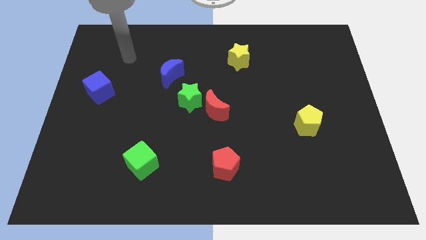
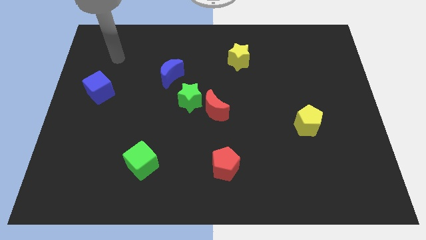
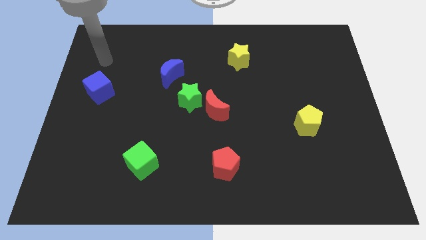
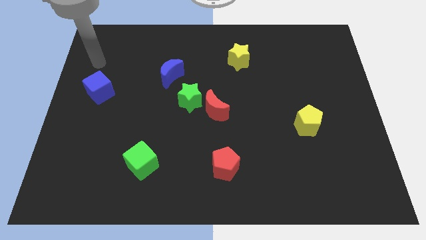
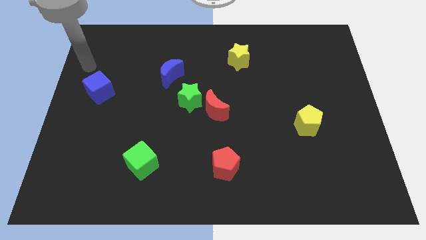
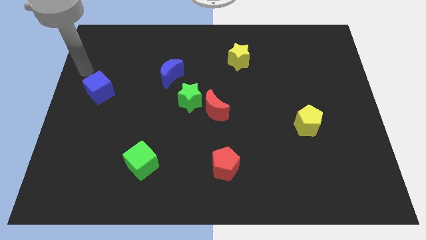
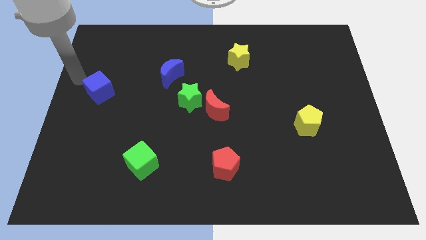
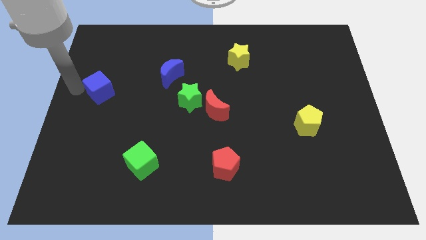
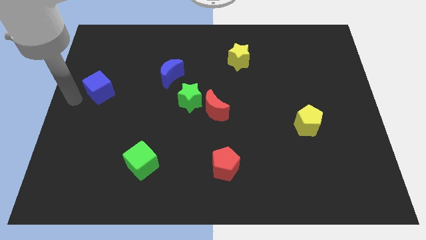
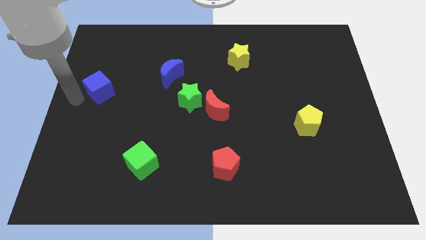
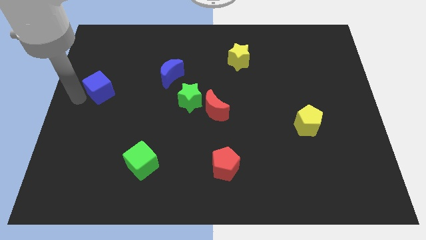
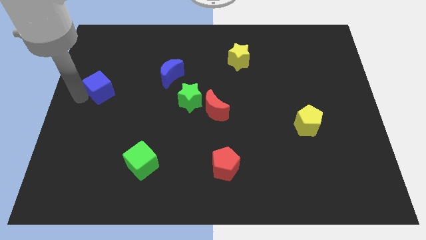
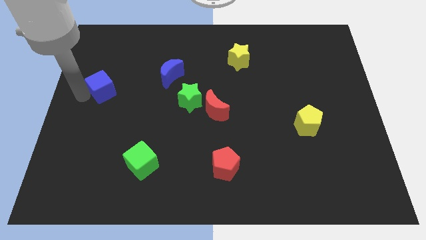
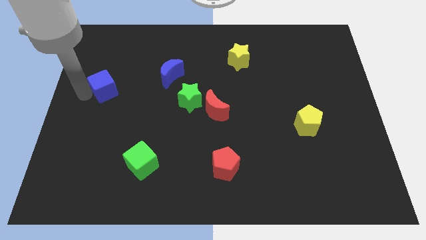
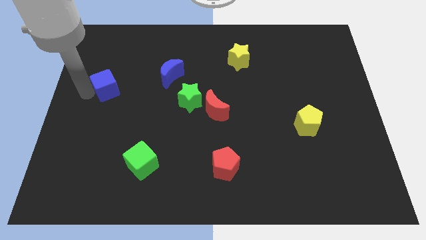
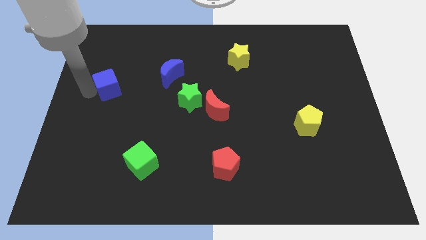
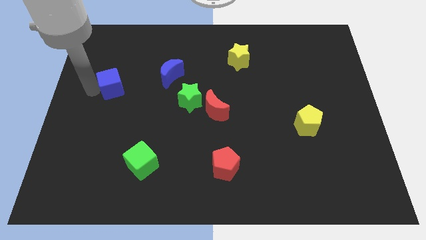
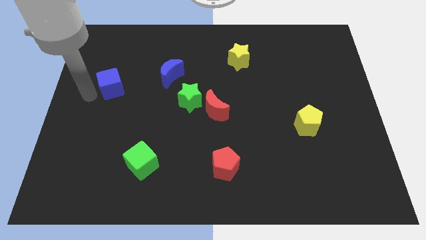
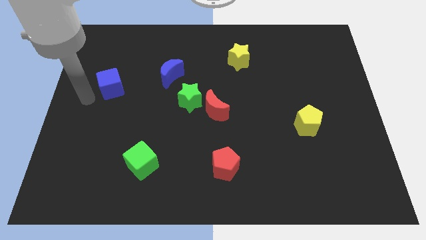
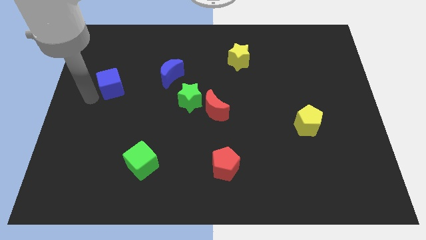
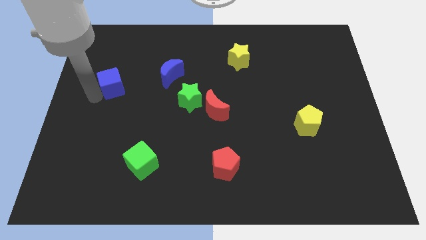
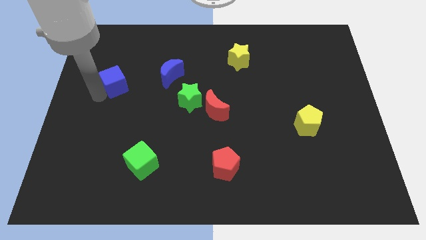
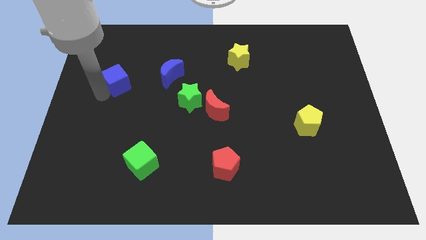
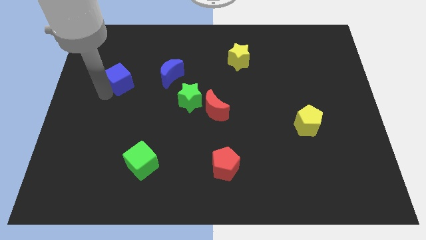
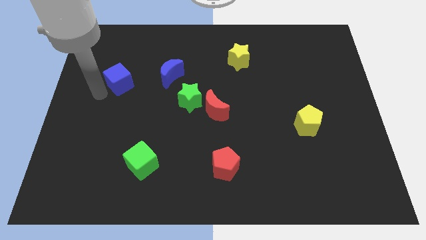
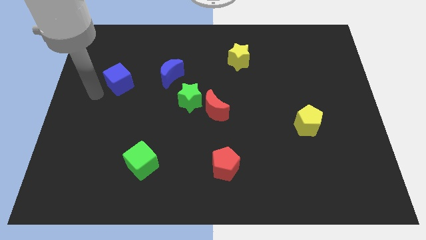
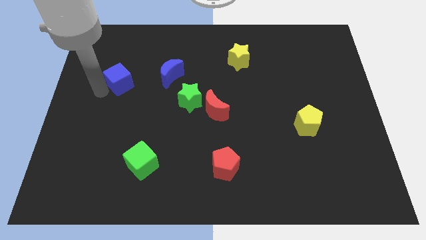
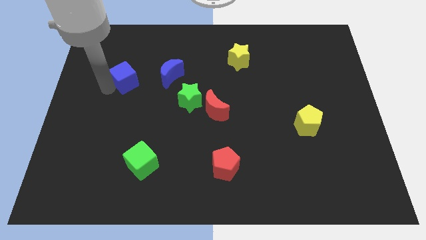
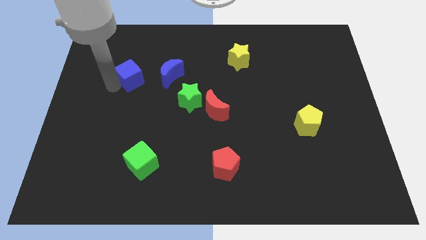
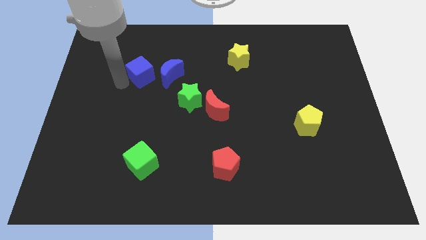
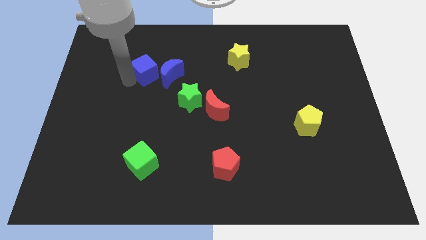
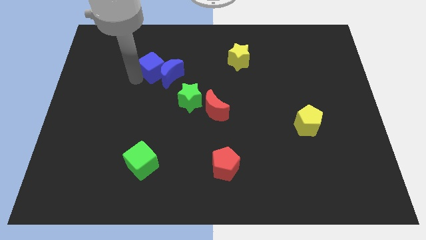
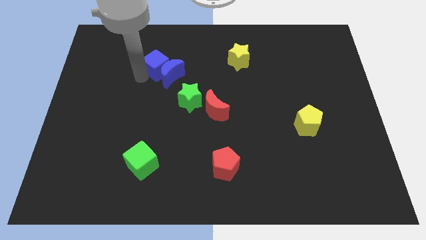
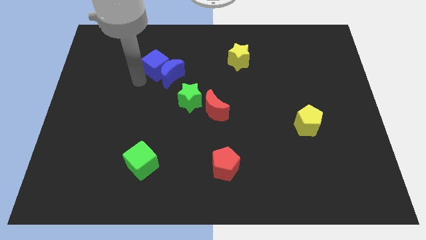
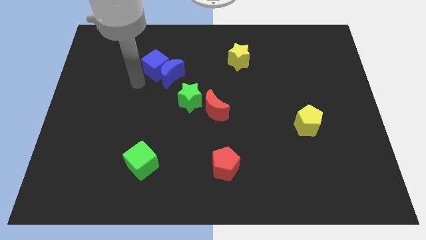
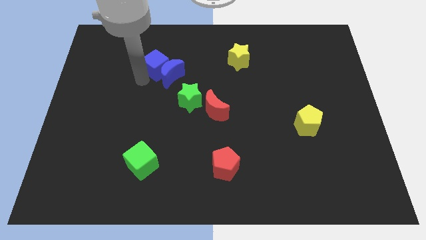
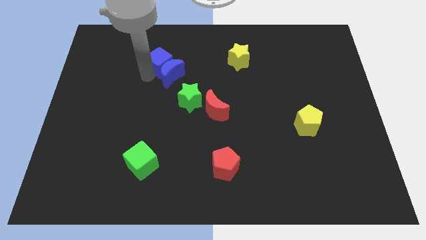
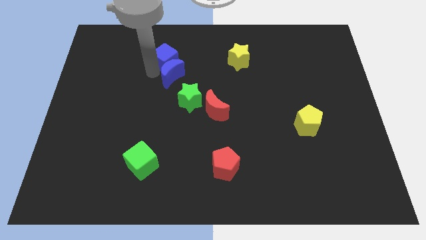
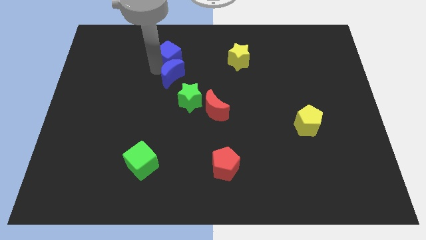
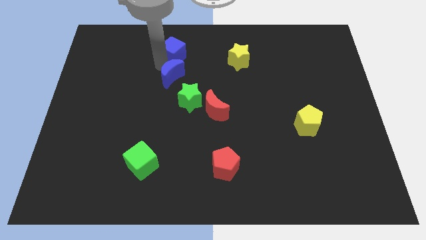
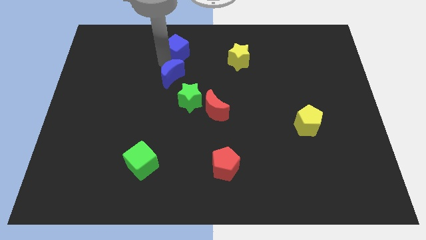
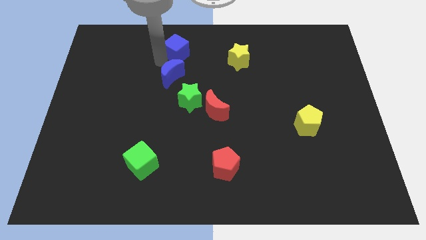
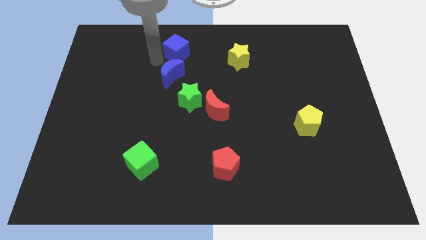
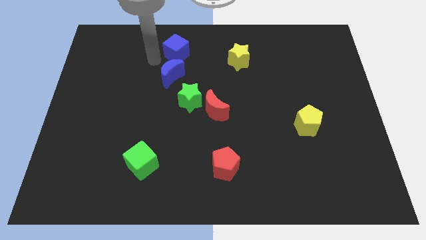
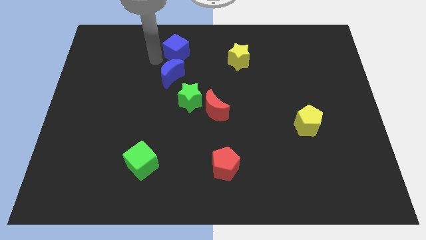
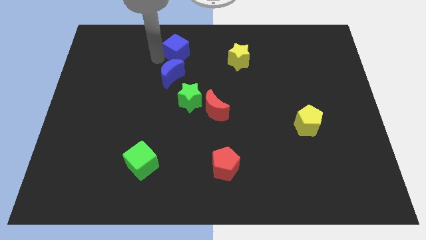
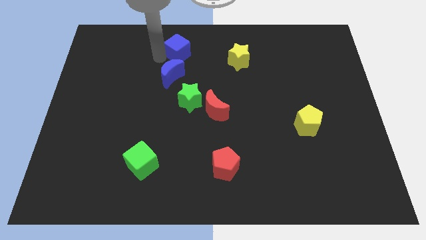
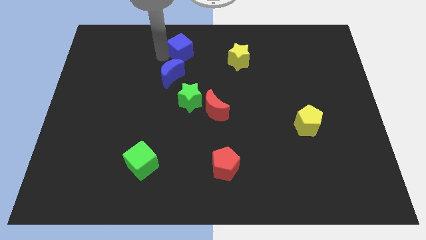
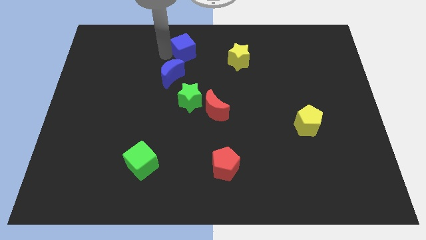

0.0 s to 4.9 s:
put the blue cube to the top

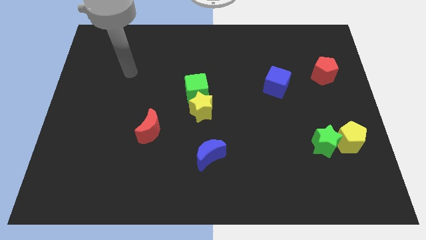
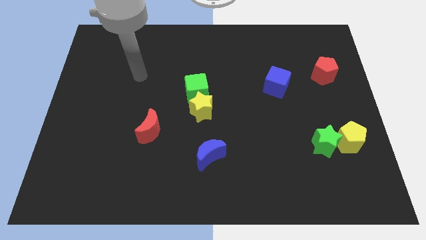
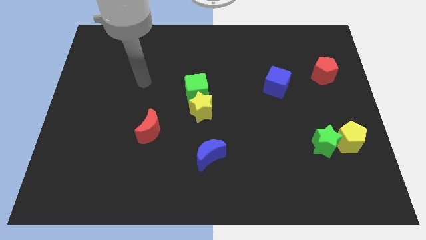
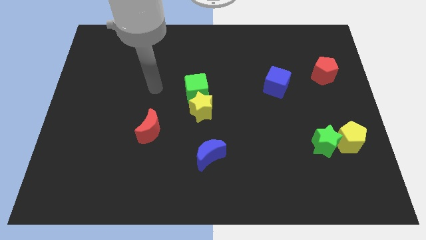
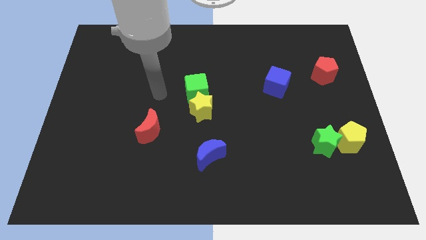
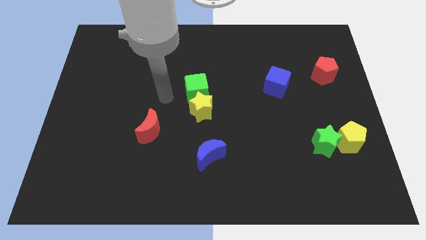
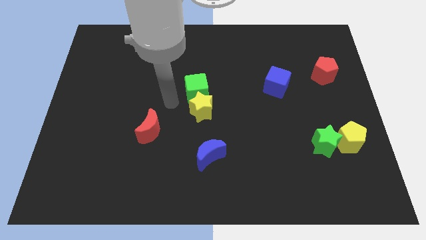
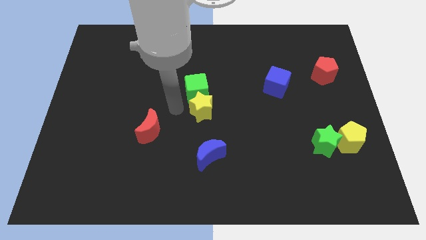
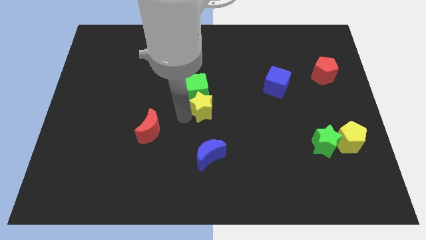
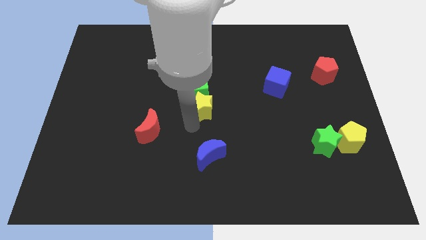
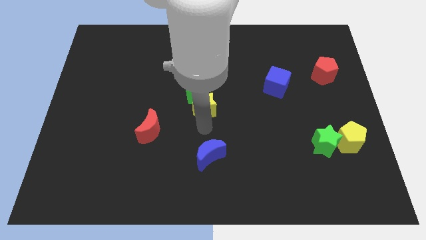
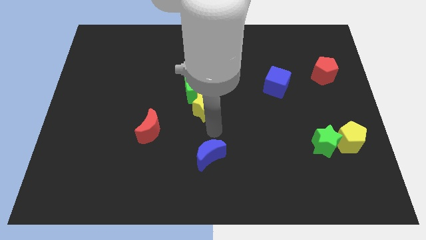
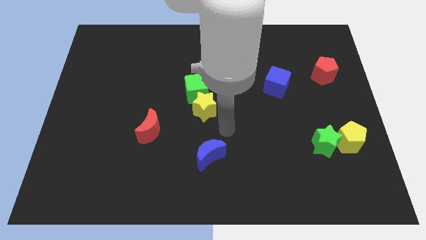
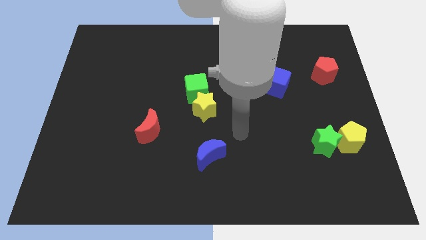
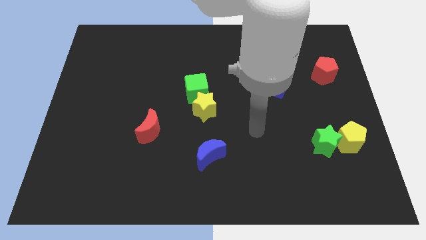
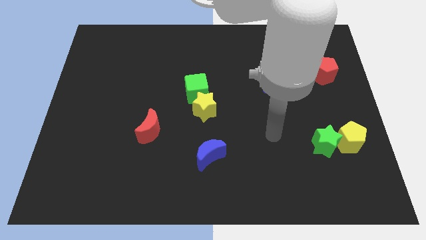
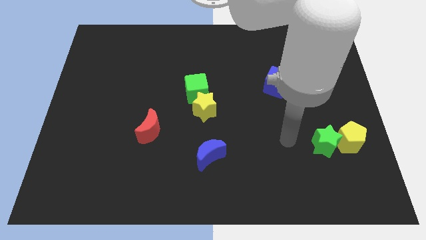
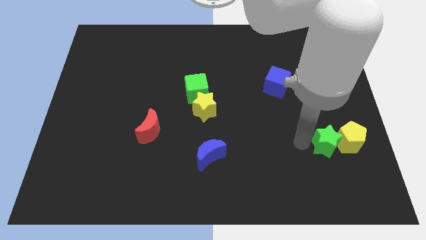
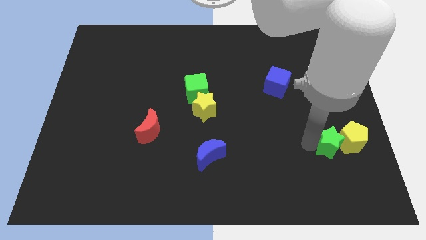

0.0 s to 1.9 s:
slide the yellow pentagon to the right side of the board
